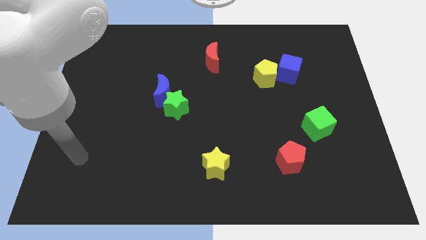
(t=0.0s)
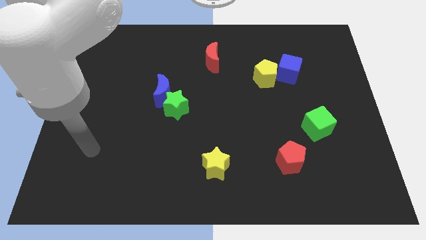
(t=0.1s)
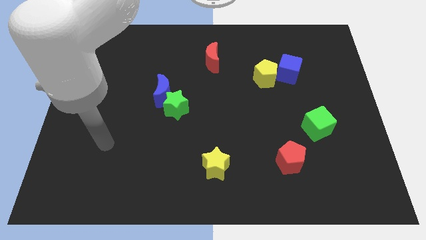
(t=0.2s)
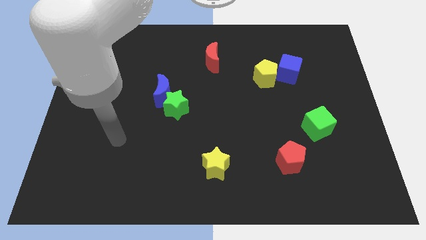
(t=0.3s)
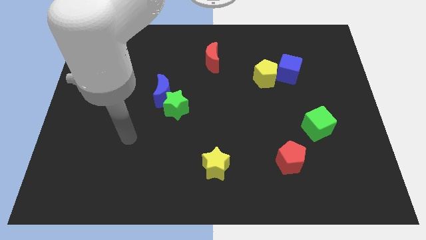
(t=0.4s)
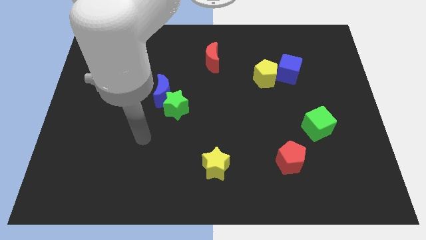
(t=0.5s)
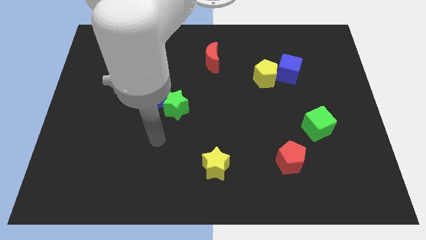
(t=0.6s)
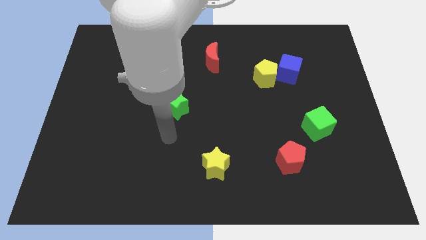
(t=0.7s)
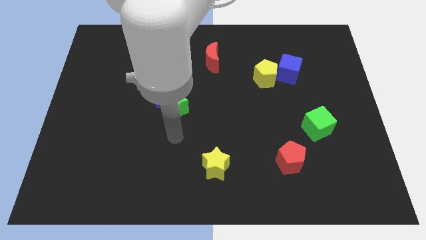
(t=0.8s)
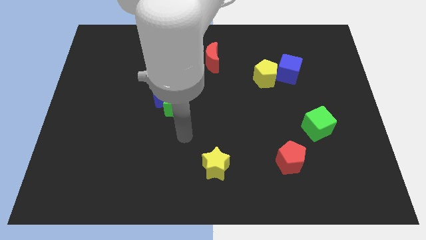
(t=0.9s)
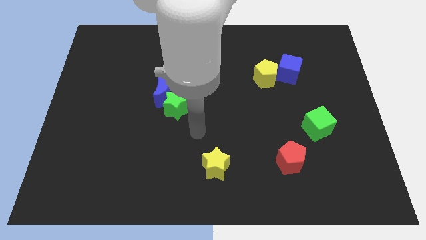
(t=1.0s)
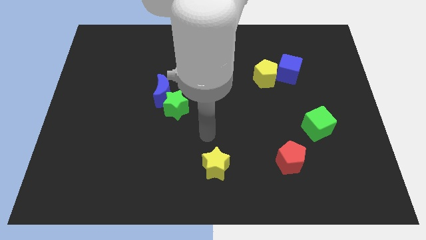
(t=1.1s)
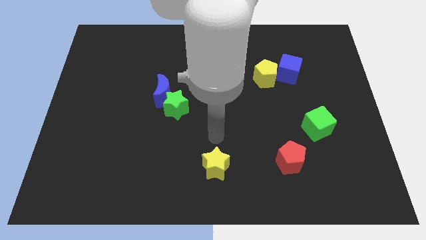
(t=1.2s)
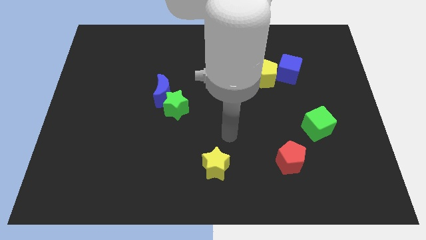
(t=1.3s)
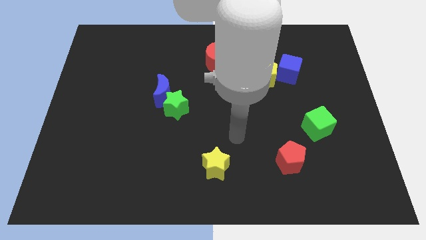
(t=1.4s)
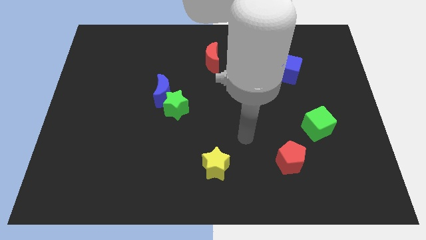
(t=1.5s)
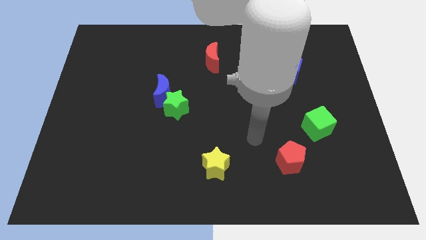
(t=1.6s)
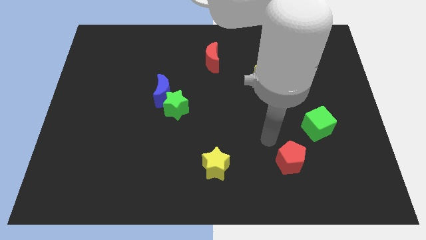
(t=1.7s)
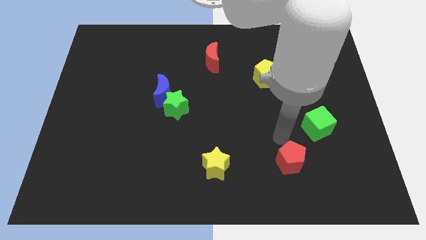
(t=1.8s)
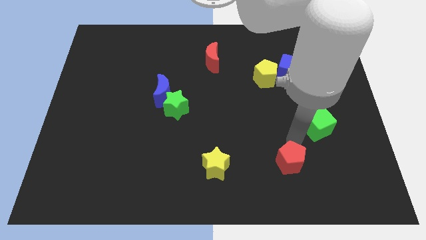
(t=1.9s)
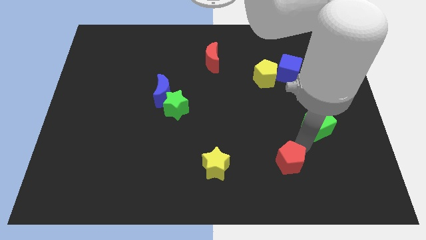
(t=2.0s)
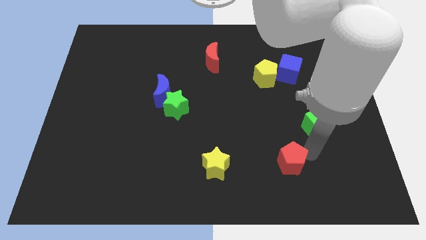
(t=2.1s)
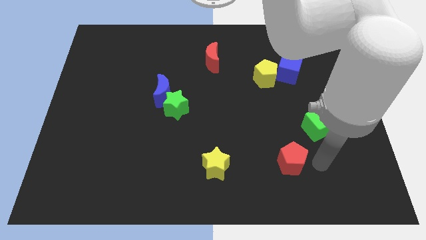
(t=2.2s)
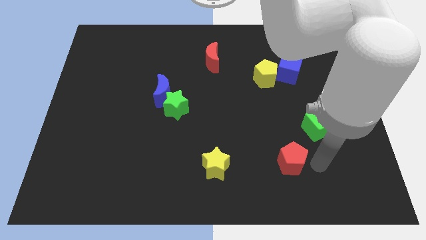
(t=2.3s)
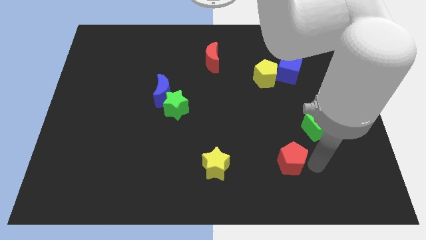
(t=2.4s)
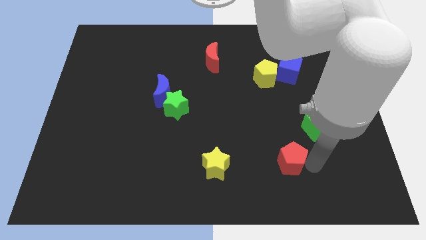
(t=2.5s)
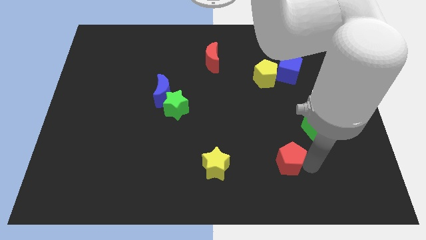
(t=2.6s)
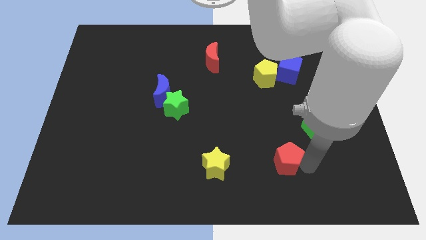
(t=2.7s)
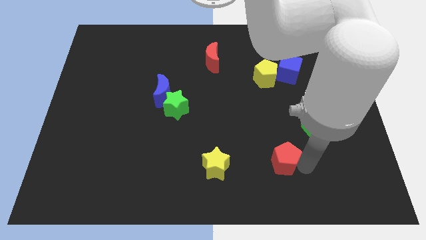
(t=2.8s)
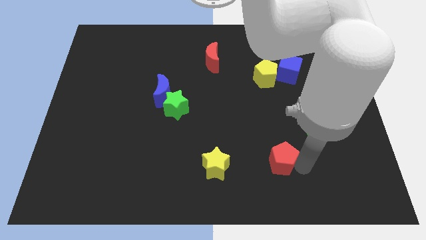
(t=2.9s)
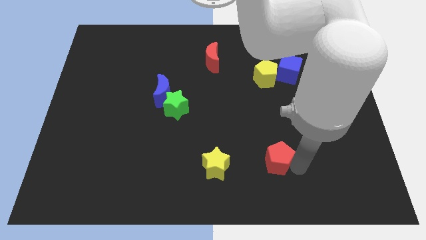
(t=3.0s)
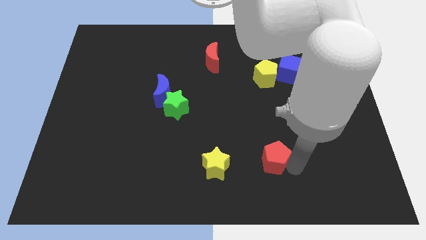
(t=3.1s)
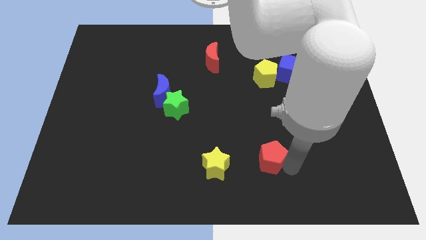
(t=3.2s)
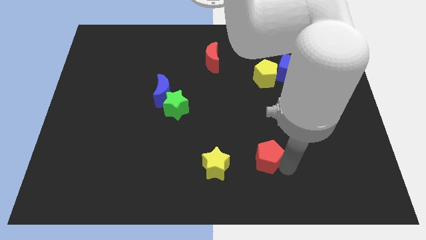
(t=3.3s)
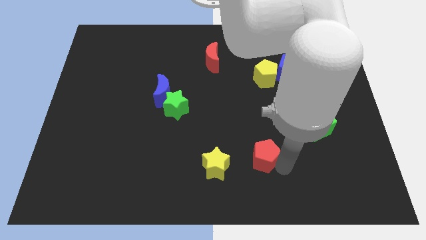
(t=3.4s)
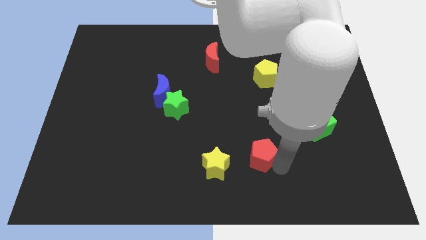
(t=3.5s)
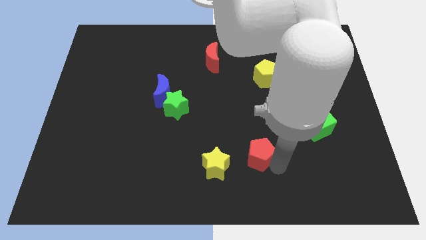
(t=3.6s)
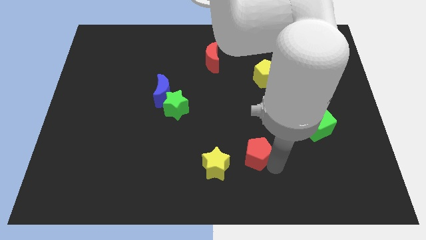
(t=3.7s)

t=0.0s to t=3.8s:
slightly slide the red pentagon left

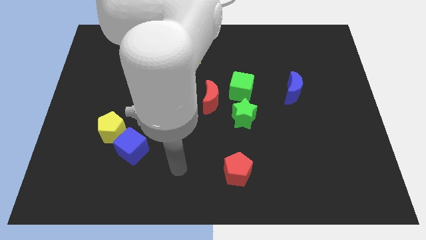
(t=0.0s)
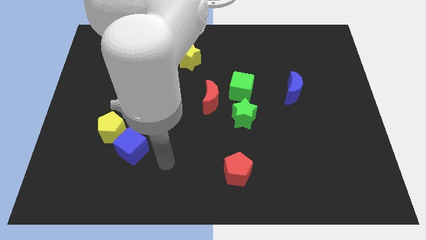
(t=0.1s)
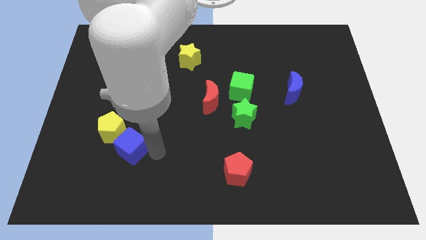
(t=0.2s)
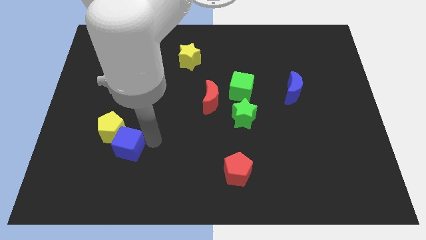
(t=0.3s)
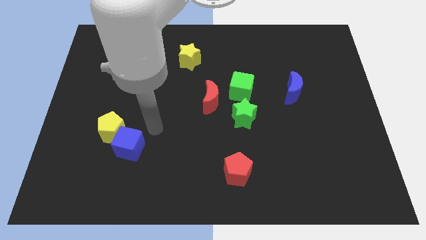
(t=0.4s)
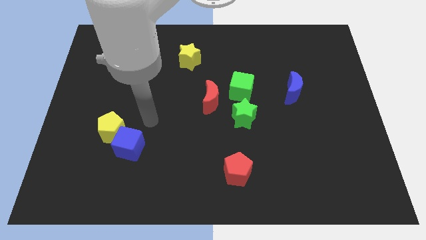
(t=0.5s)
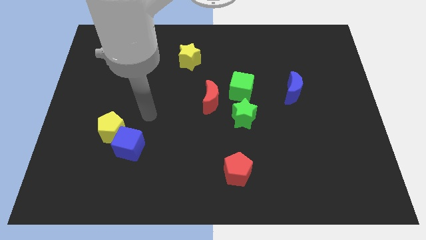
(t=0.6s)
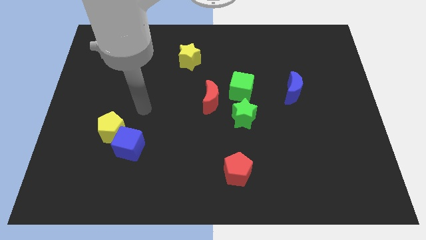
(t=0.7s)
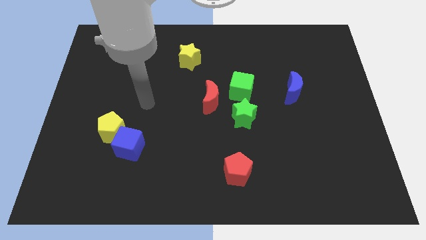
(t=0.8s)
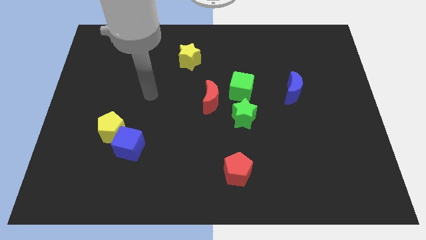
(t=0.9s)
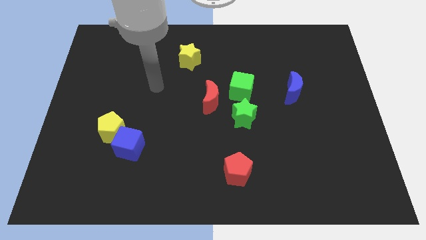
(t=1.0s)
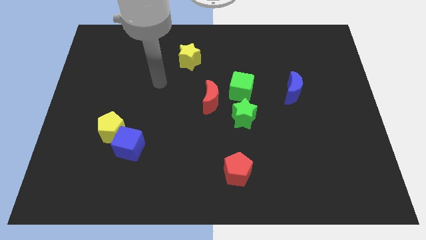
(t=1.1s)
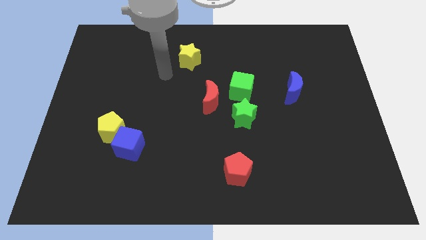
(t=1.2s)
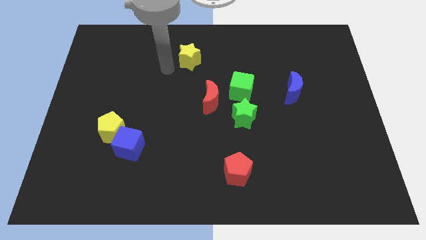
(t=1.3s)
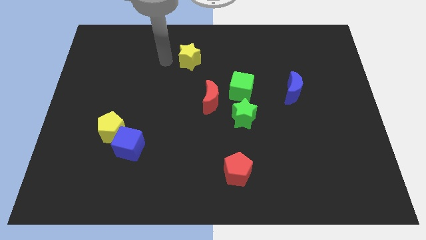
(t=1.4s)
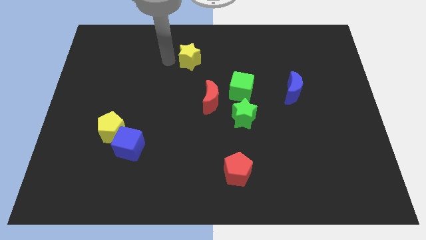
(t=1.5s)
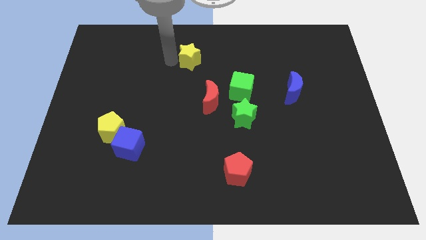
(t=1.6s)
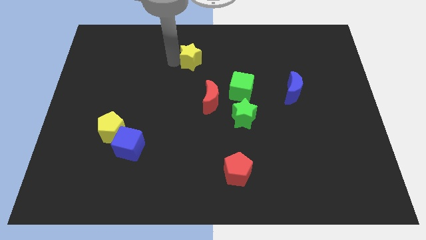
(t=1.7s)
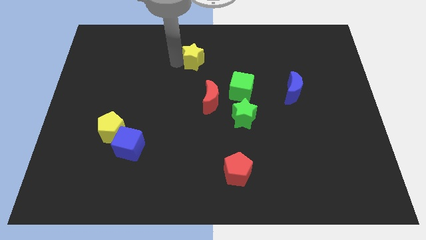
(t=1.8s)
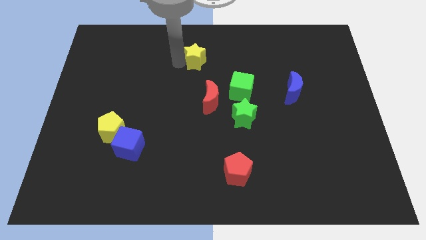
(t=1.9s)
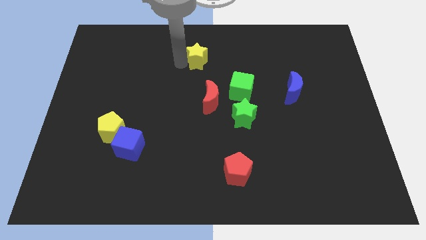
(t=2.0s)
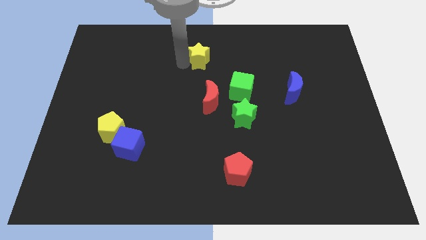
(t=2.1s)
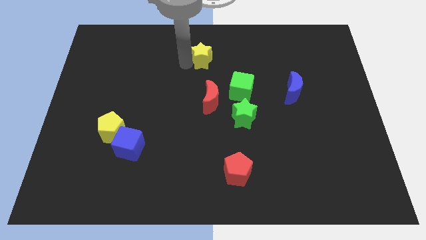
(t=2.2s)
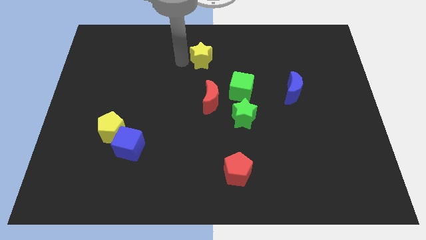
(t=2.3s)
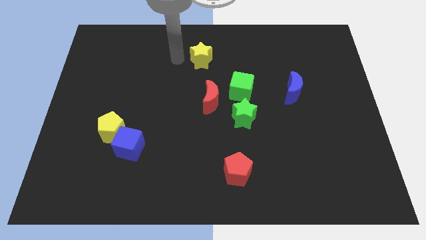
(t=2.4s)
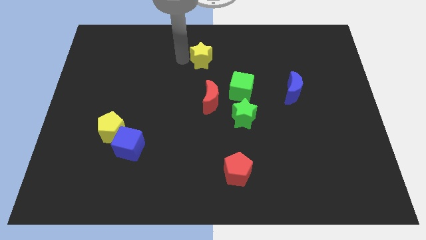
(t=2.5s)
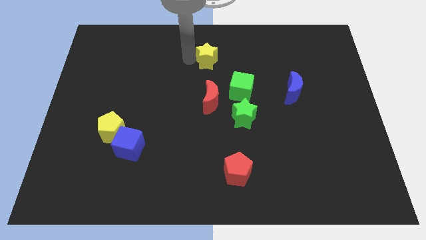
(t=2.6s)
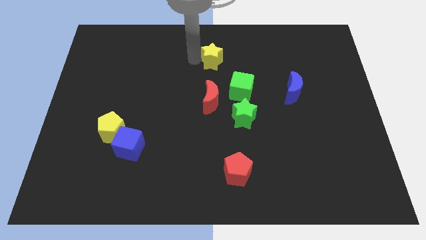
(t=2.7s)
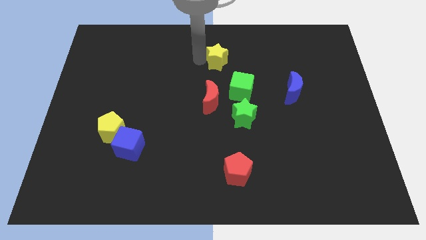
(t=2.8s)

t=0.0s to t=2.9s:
move the yellow star slightly to the right

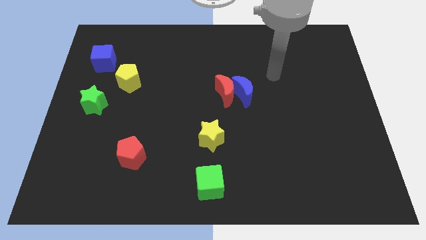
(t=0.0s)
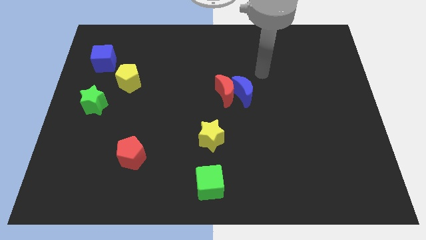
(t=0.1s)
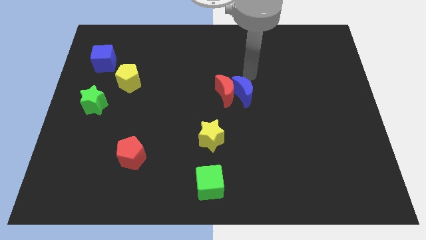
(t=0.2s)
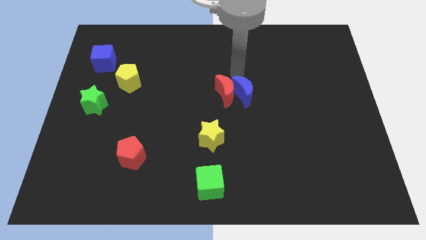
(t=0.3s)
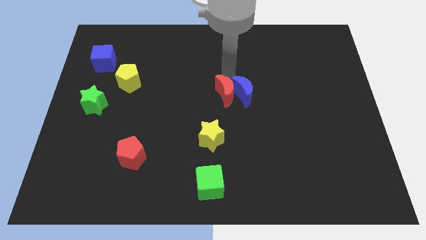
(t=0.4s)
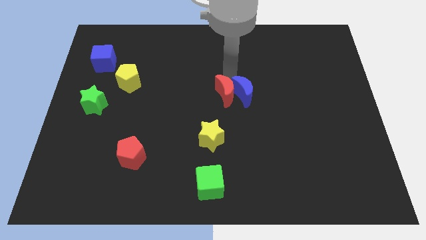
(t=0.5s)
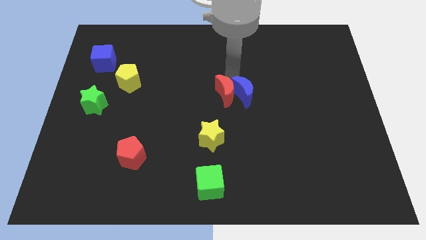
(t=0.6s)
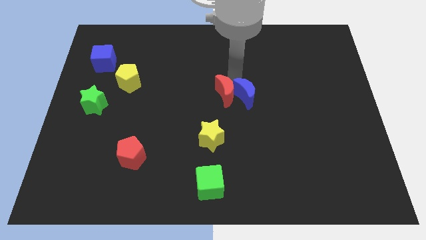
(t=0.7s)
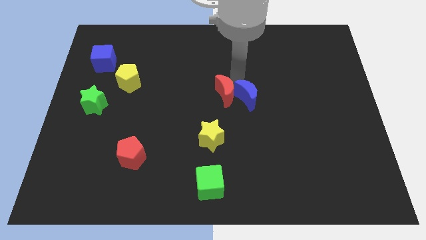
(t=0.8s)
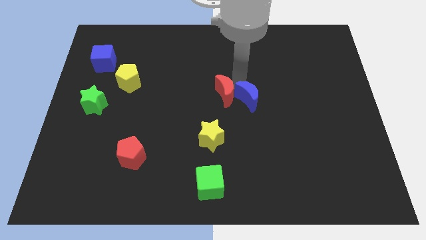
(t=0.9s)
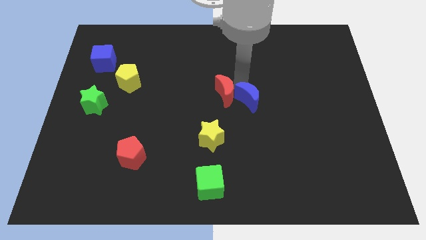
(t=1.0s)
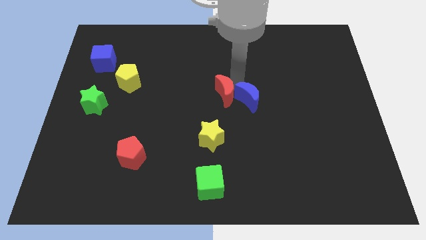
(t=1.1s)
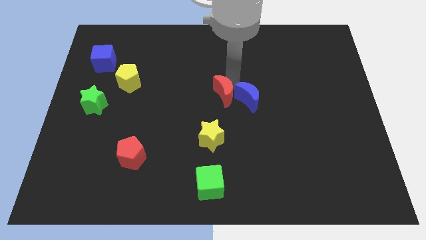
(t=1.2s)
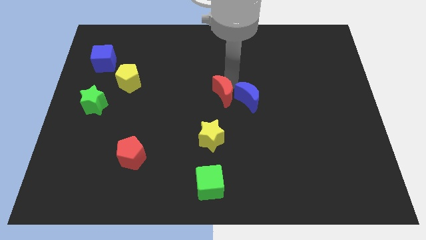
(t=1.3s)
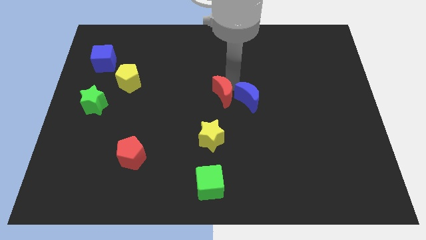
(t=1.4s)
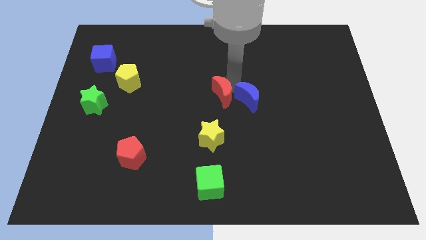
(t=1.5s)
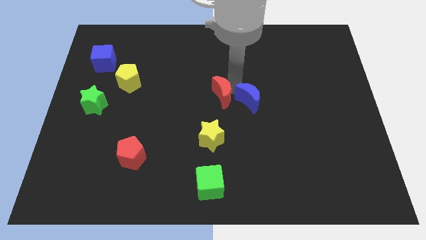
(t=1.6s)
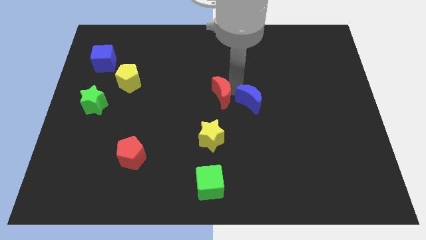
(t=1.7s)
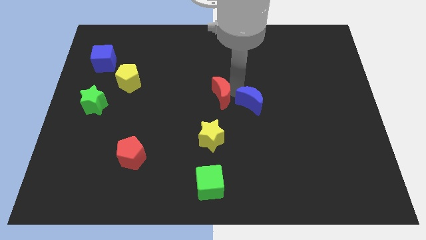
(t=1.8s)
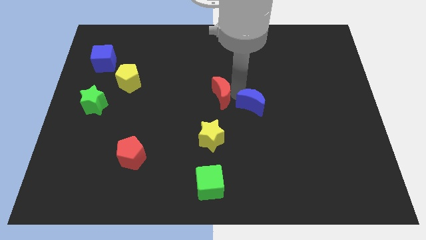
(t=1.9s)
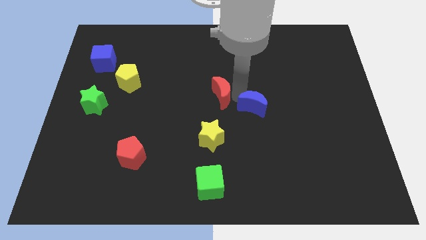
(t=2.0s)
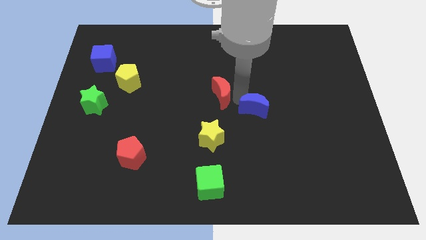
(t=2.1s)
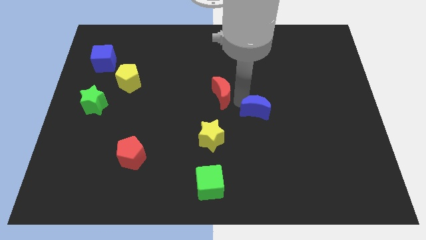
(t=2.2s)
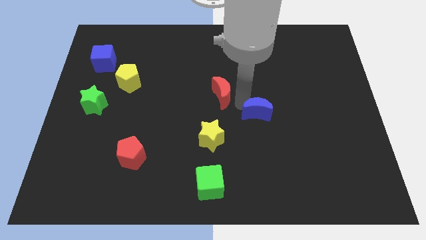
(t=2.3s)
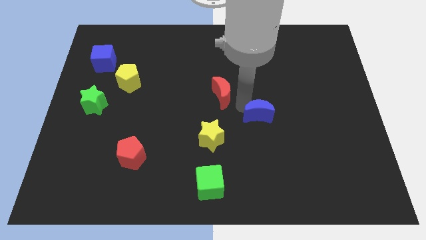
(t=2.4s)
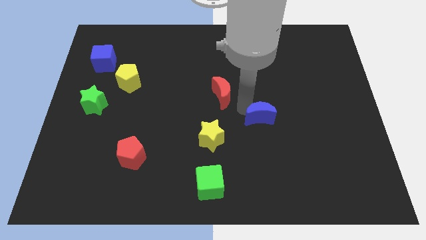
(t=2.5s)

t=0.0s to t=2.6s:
slide the blue moon a little bit down and then to the right
